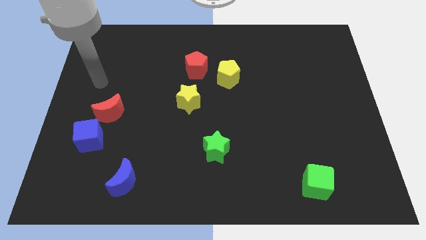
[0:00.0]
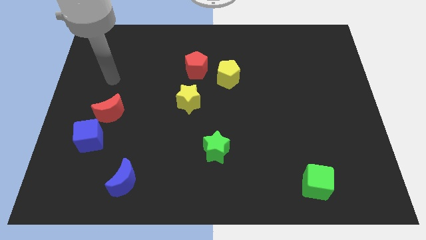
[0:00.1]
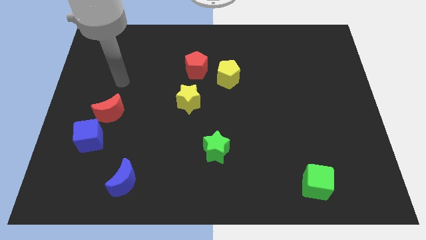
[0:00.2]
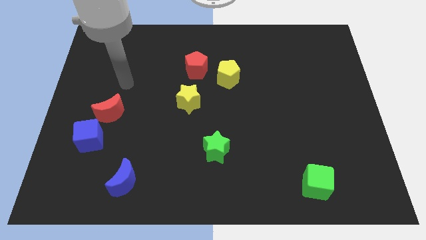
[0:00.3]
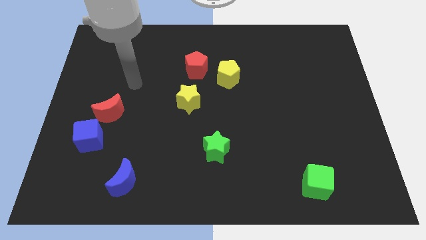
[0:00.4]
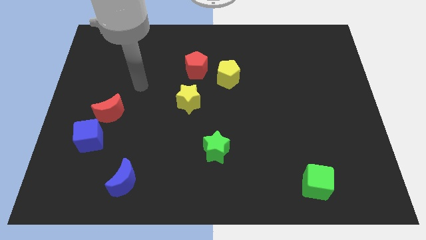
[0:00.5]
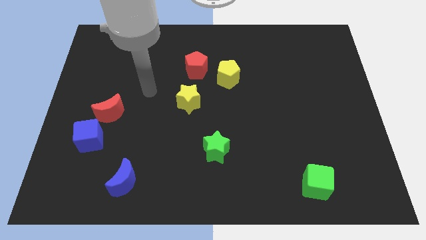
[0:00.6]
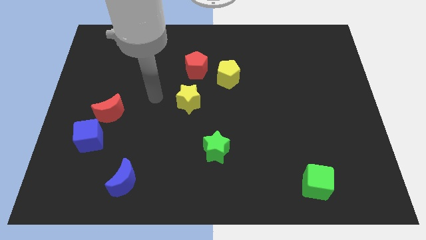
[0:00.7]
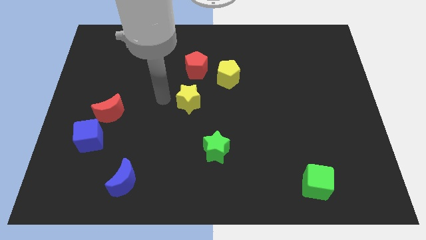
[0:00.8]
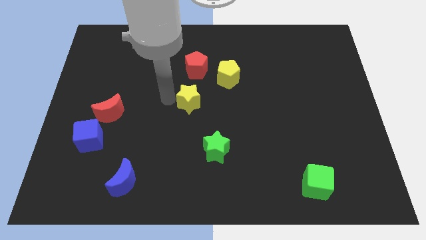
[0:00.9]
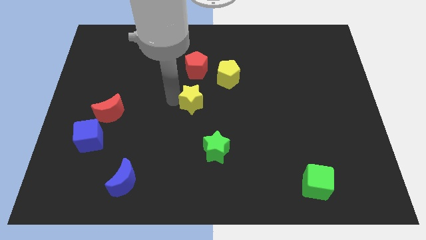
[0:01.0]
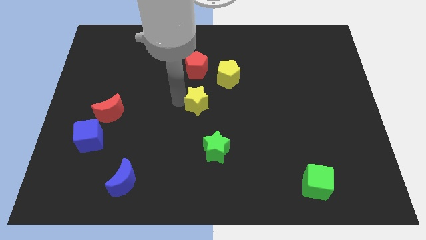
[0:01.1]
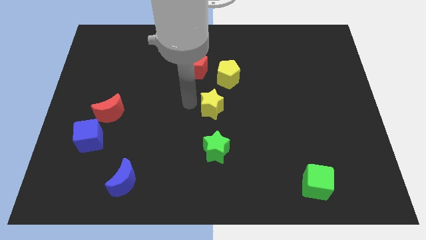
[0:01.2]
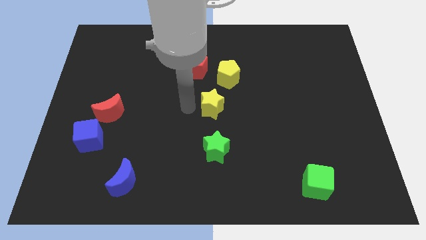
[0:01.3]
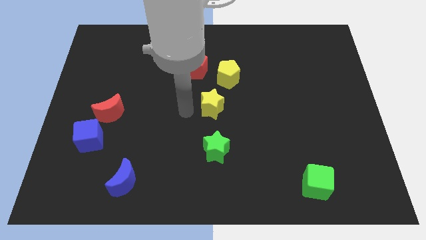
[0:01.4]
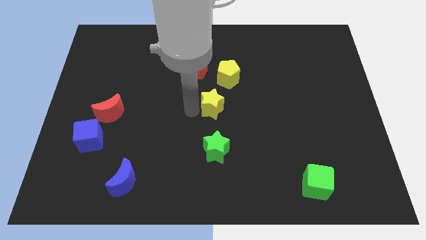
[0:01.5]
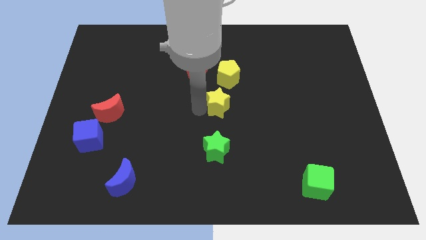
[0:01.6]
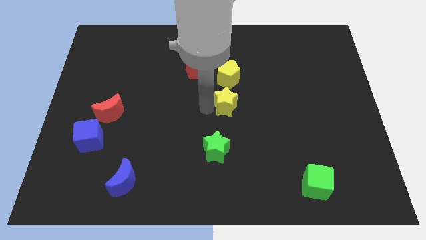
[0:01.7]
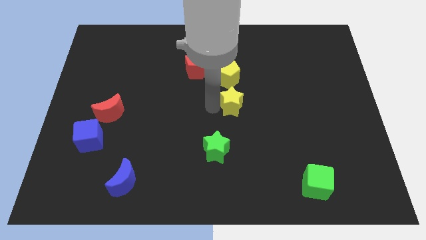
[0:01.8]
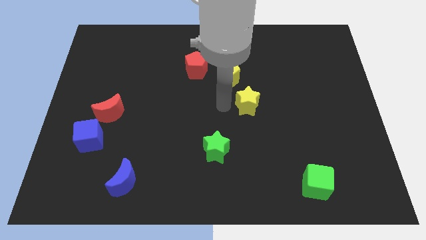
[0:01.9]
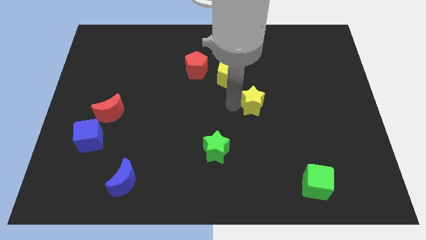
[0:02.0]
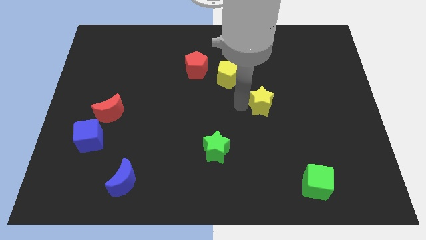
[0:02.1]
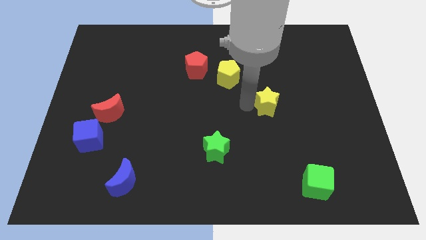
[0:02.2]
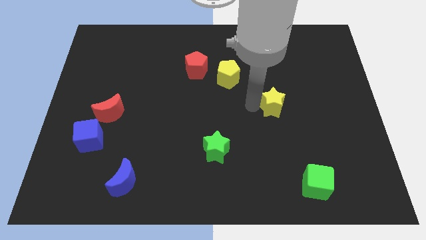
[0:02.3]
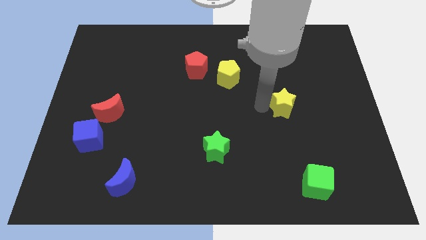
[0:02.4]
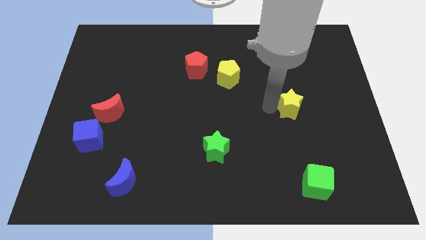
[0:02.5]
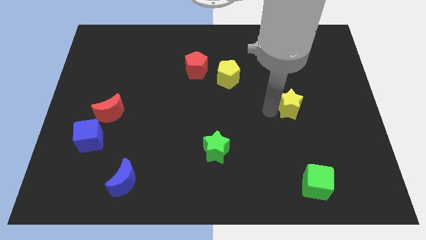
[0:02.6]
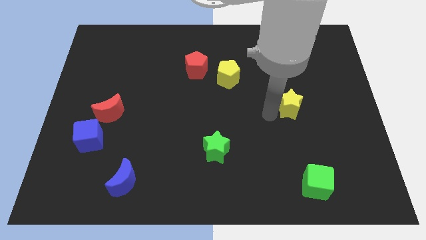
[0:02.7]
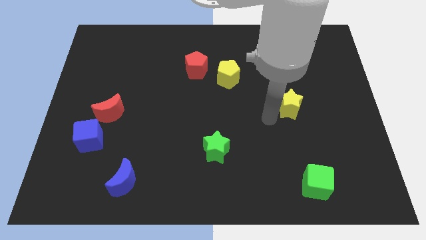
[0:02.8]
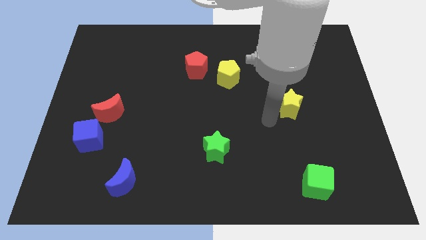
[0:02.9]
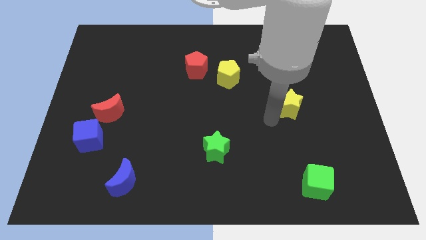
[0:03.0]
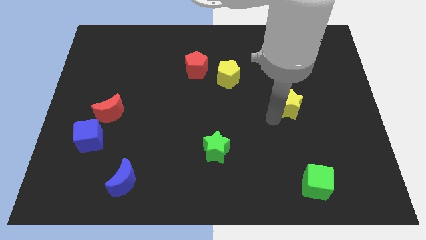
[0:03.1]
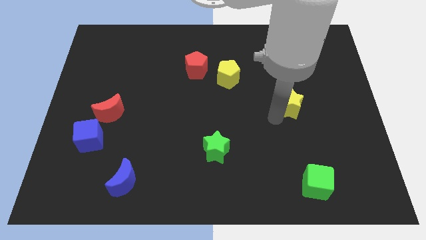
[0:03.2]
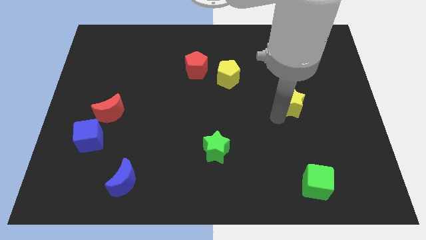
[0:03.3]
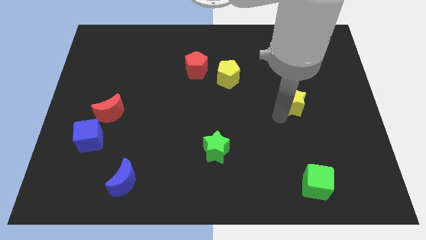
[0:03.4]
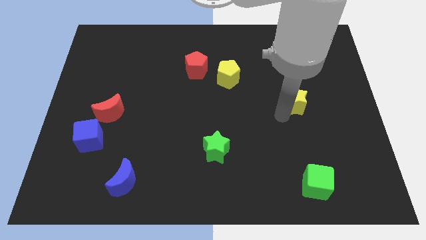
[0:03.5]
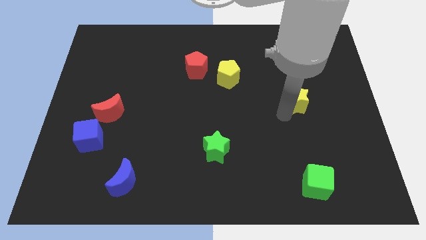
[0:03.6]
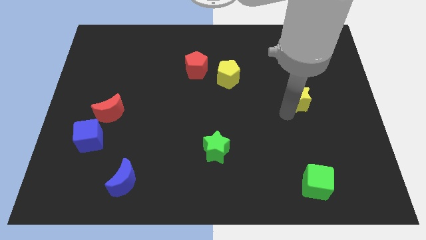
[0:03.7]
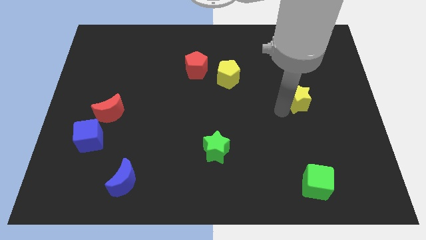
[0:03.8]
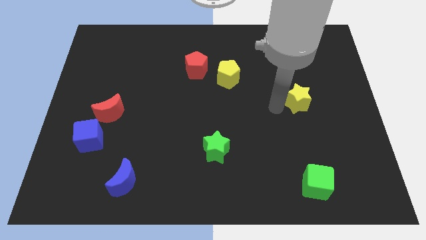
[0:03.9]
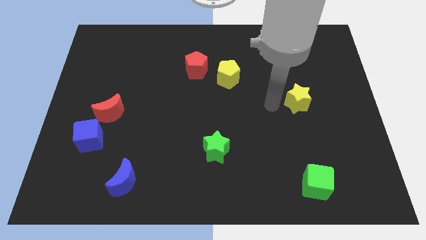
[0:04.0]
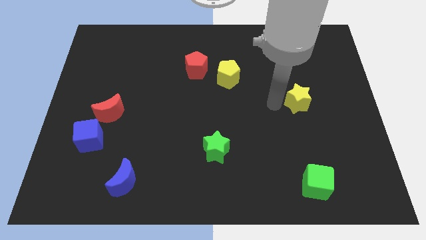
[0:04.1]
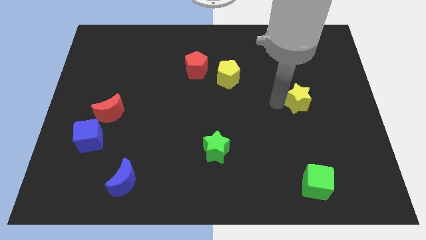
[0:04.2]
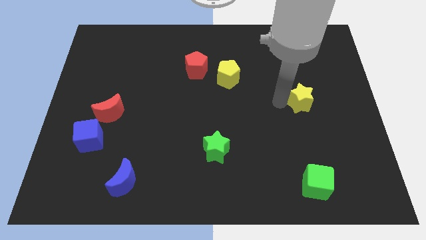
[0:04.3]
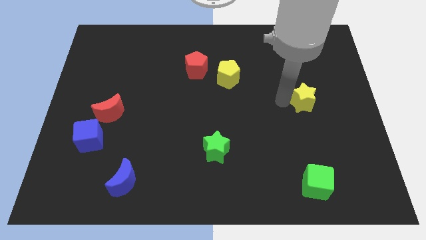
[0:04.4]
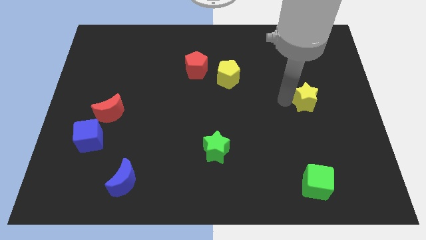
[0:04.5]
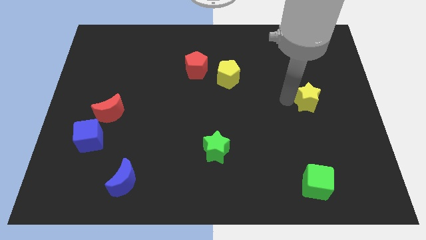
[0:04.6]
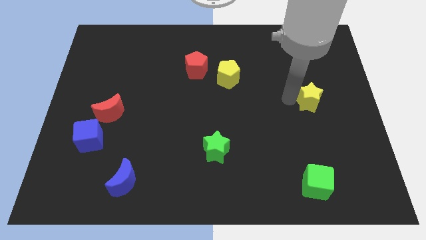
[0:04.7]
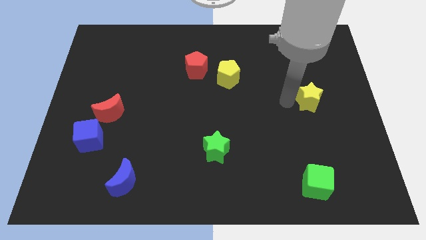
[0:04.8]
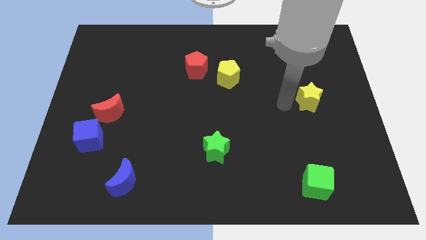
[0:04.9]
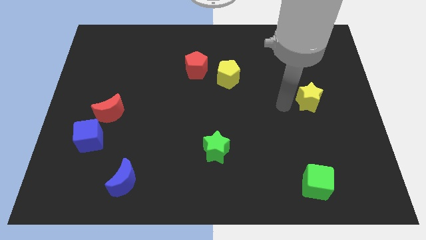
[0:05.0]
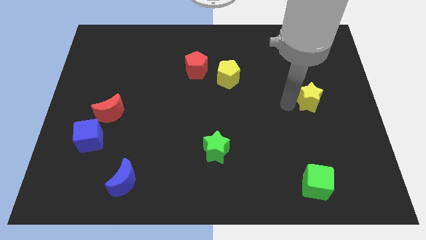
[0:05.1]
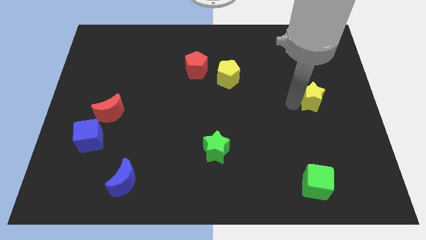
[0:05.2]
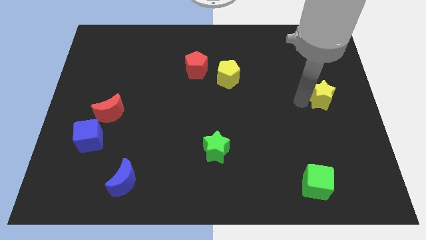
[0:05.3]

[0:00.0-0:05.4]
move the yellow star to the right side
